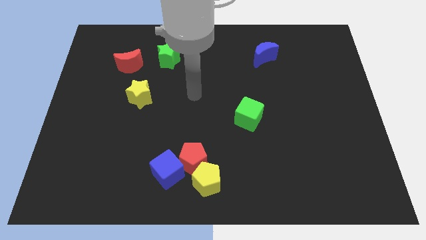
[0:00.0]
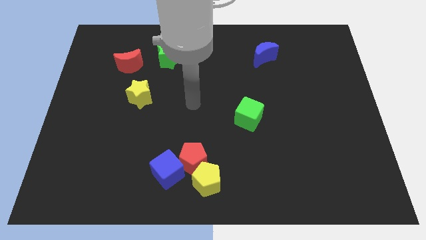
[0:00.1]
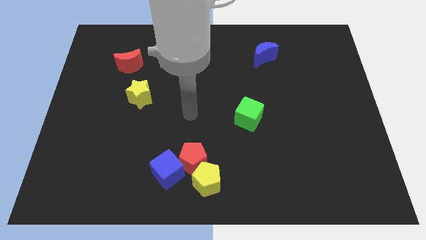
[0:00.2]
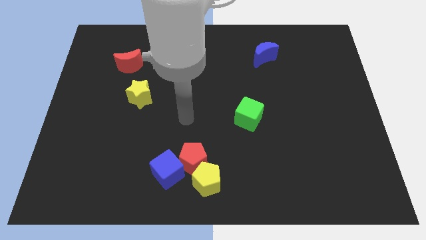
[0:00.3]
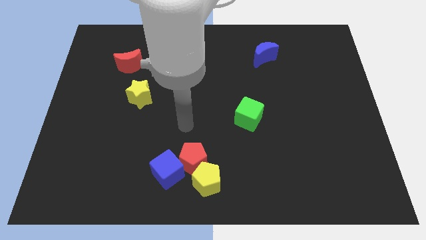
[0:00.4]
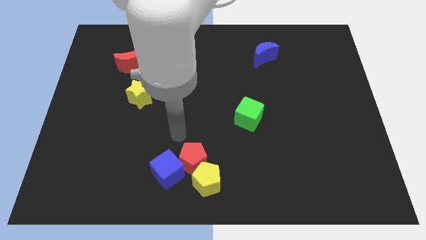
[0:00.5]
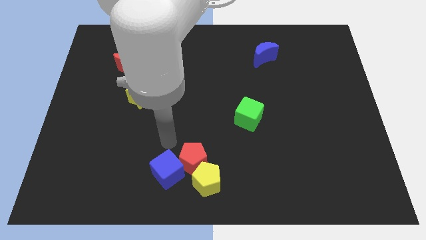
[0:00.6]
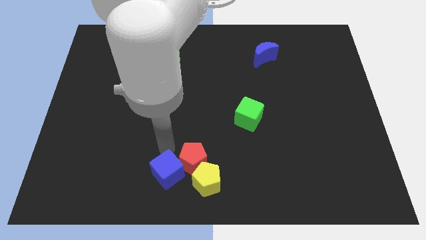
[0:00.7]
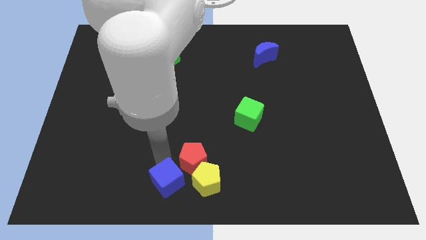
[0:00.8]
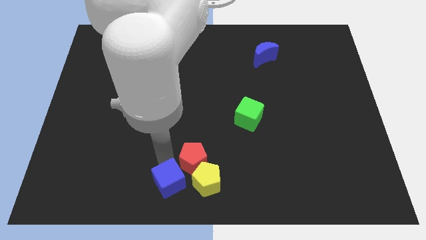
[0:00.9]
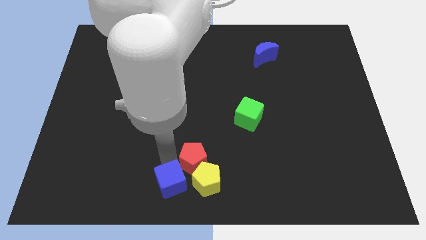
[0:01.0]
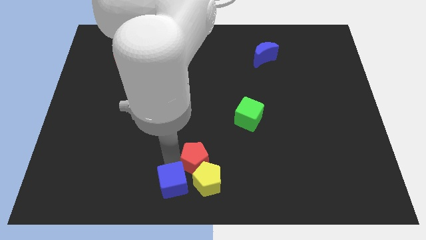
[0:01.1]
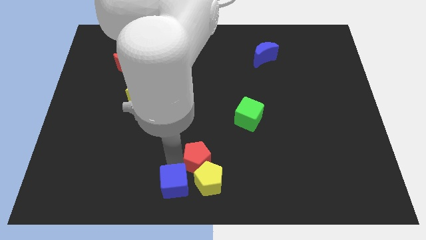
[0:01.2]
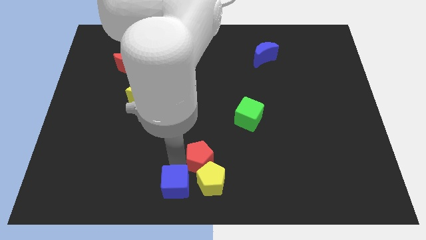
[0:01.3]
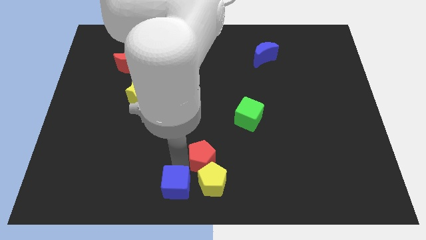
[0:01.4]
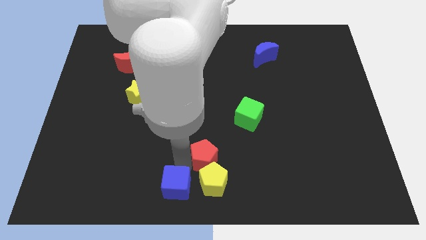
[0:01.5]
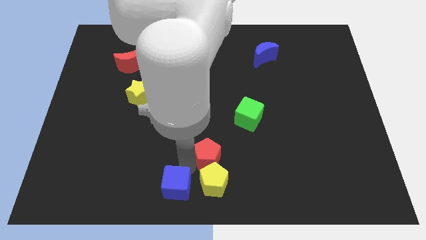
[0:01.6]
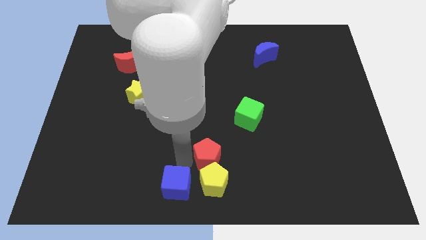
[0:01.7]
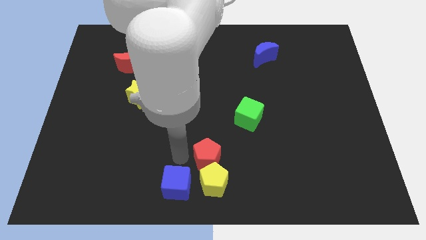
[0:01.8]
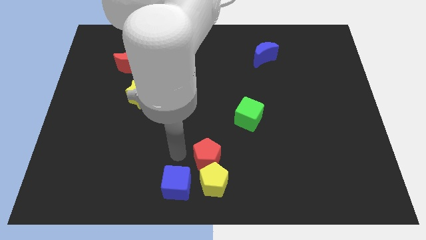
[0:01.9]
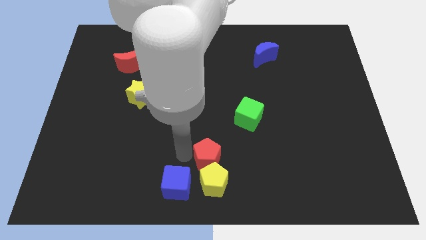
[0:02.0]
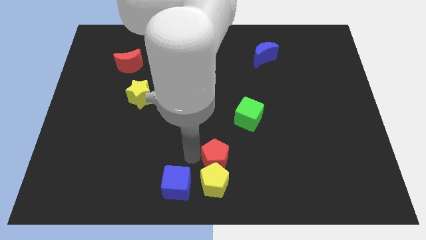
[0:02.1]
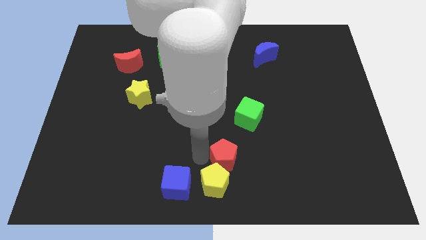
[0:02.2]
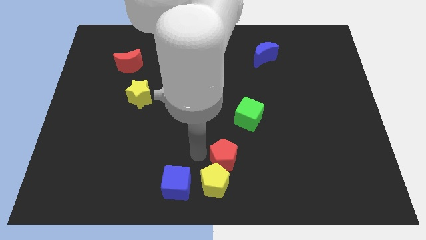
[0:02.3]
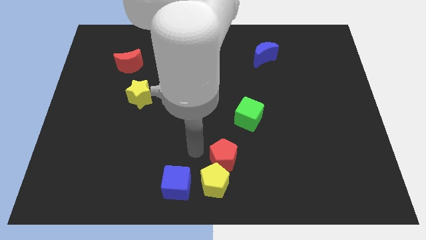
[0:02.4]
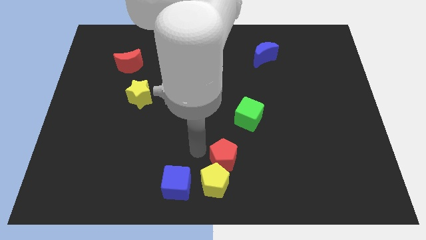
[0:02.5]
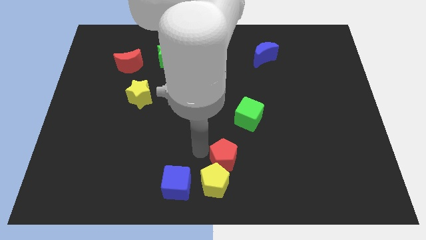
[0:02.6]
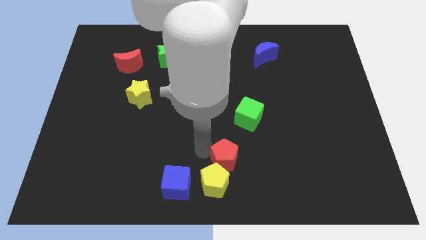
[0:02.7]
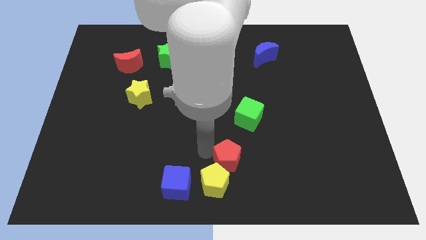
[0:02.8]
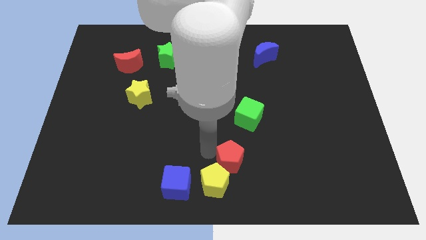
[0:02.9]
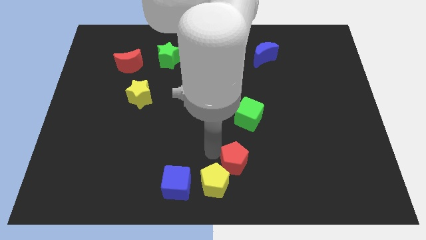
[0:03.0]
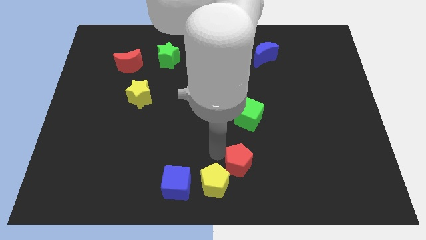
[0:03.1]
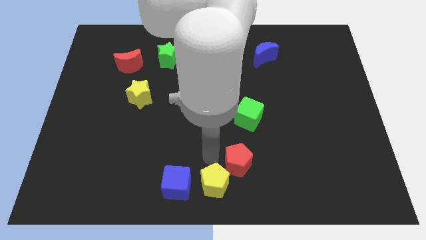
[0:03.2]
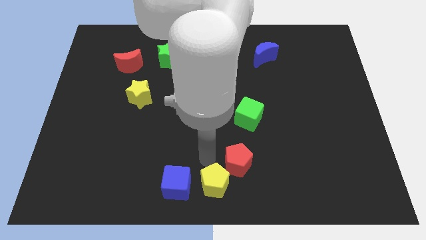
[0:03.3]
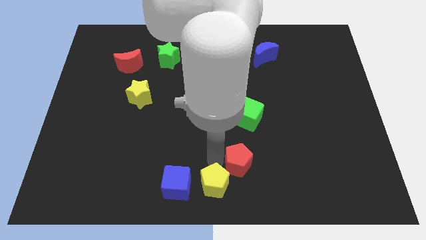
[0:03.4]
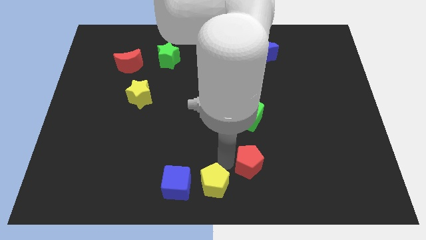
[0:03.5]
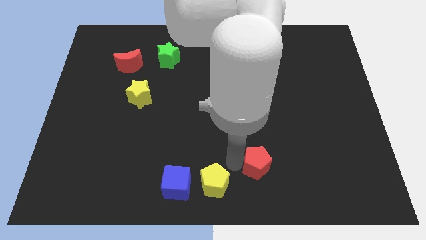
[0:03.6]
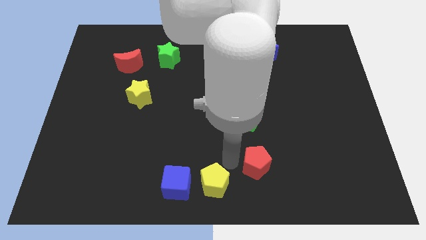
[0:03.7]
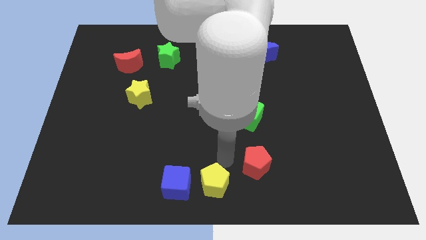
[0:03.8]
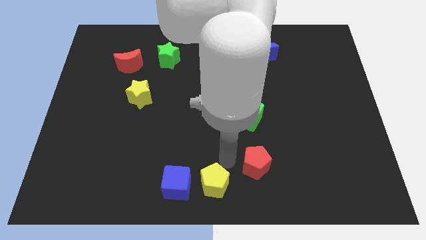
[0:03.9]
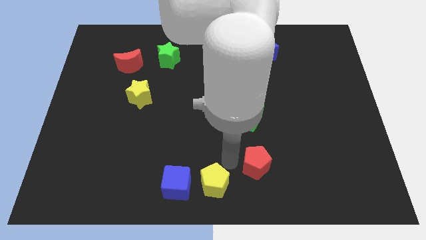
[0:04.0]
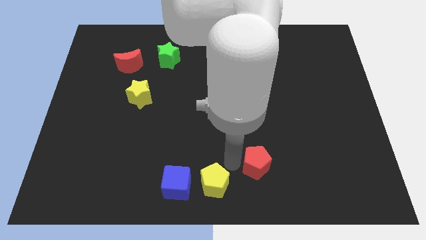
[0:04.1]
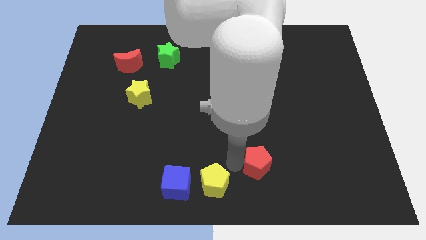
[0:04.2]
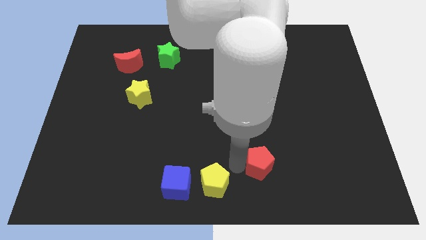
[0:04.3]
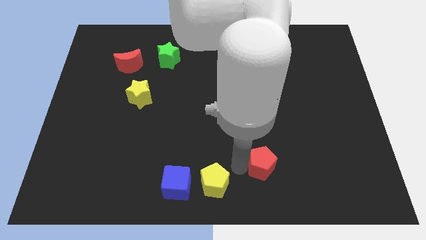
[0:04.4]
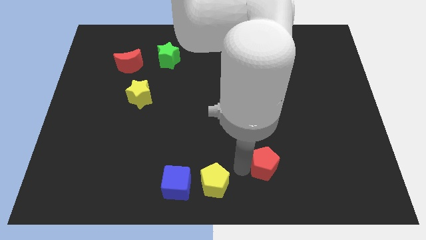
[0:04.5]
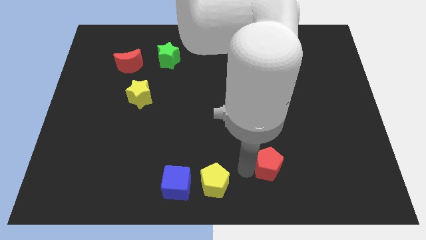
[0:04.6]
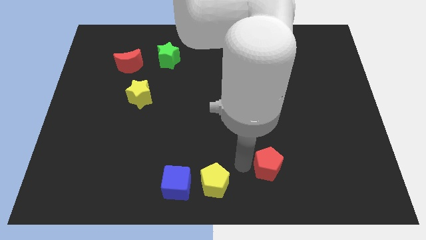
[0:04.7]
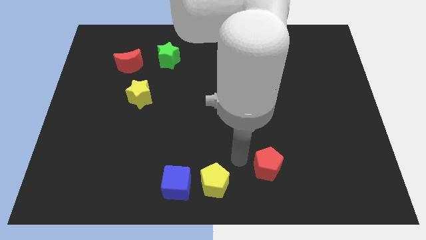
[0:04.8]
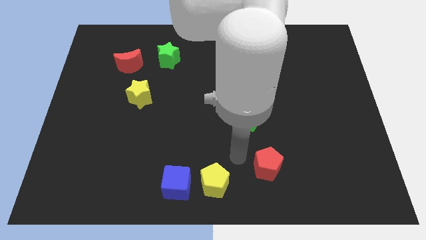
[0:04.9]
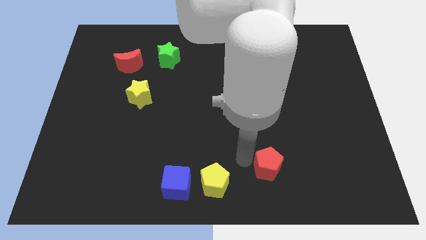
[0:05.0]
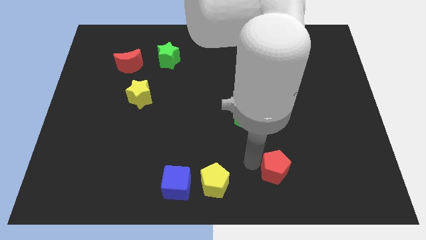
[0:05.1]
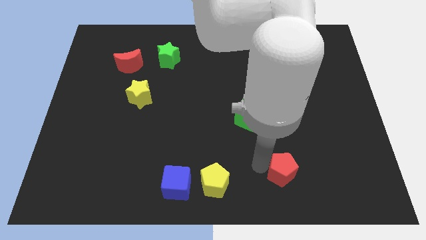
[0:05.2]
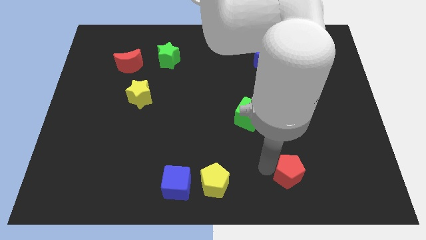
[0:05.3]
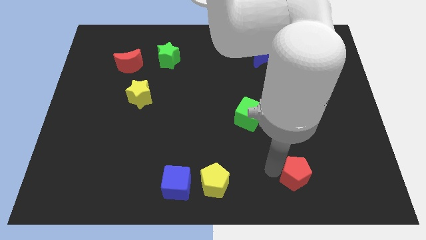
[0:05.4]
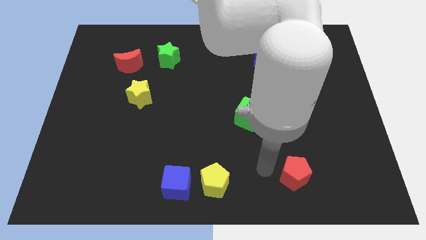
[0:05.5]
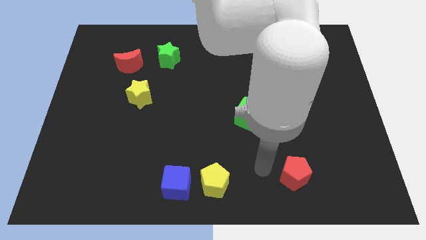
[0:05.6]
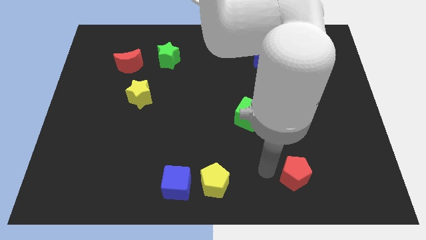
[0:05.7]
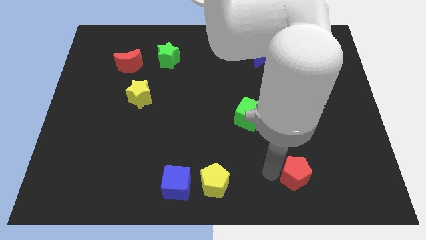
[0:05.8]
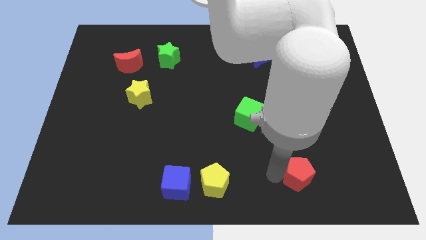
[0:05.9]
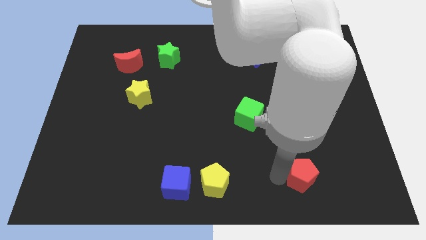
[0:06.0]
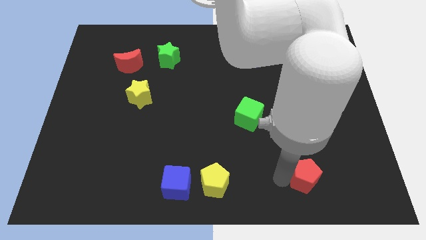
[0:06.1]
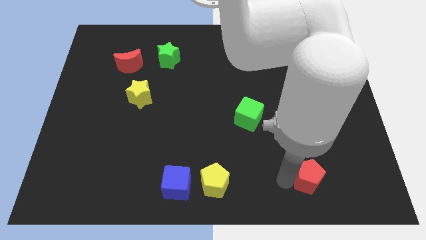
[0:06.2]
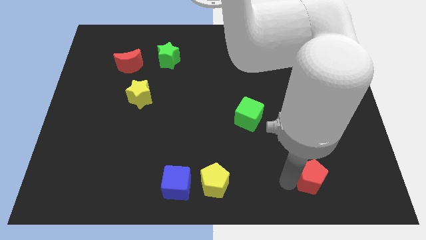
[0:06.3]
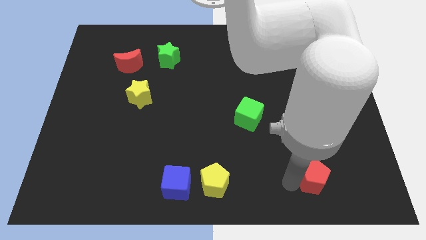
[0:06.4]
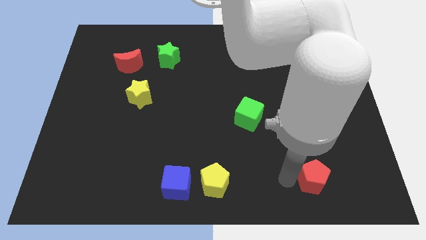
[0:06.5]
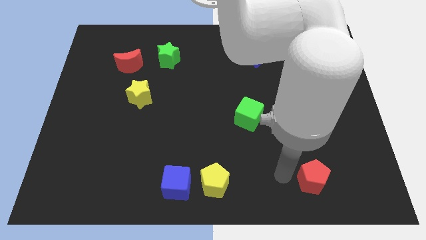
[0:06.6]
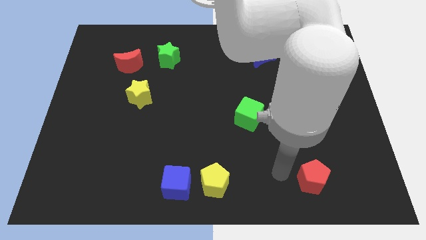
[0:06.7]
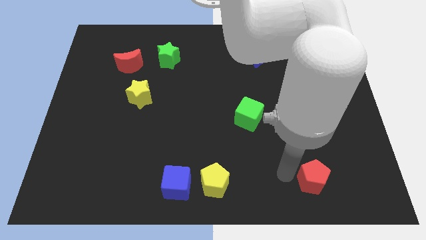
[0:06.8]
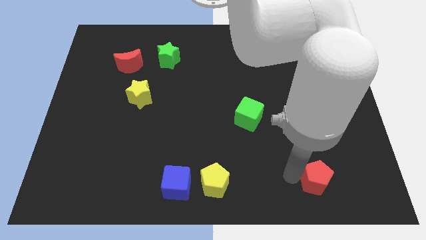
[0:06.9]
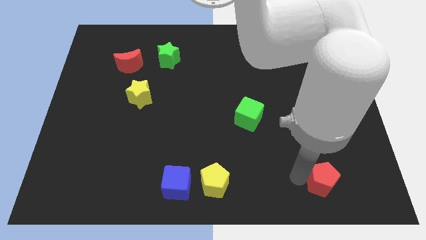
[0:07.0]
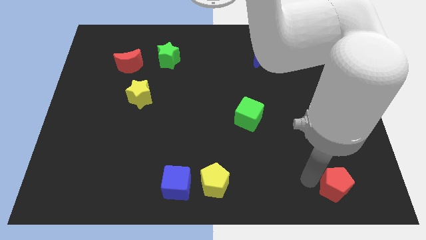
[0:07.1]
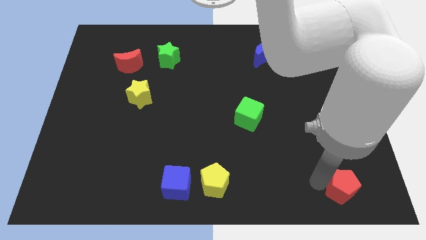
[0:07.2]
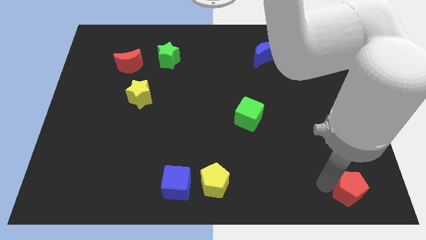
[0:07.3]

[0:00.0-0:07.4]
move the red pentagon to the bottom right of the board
